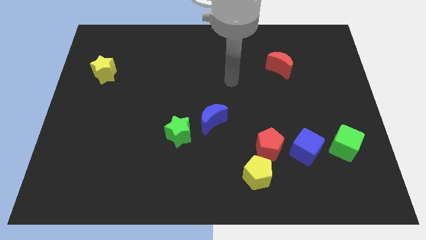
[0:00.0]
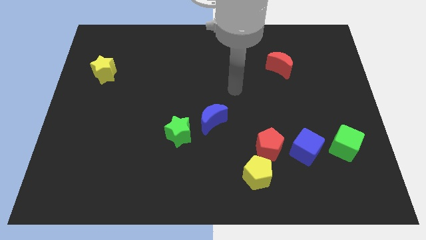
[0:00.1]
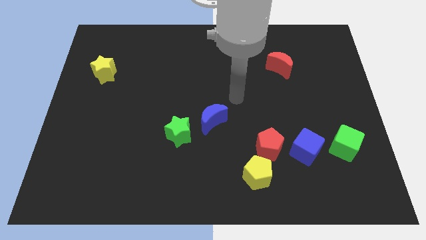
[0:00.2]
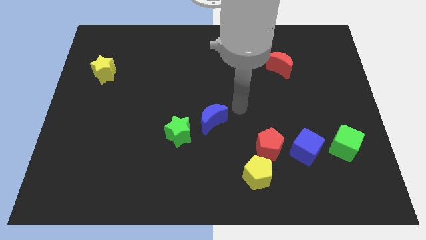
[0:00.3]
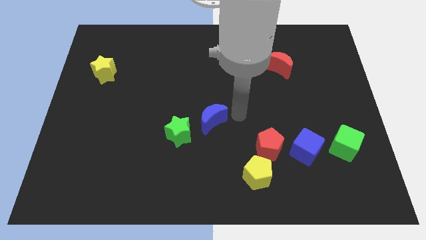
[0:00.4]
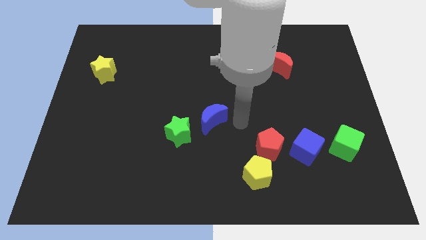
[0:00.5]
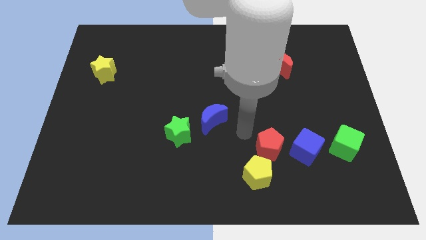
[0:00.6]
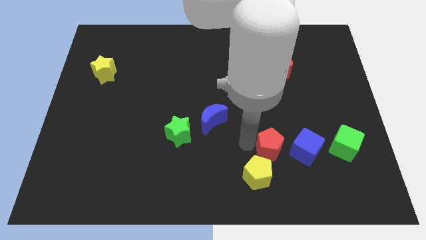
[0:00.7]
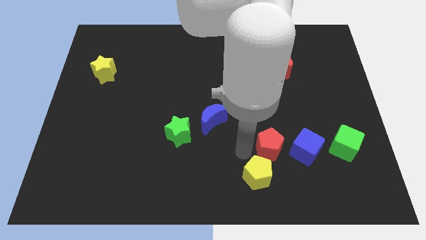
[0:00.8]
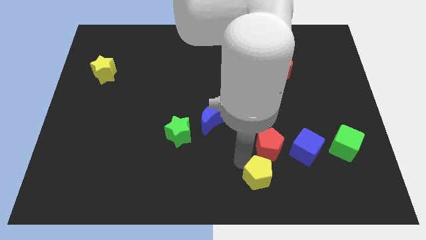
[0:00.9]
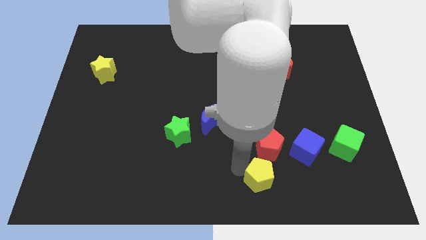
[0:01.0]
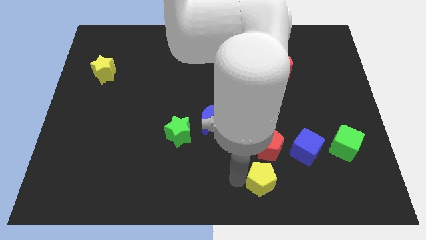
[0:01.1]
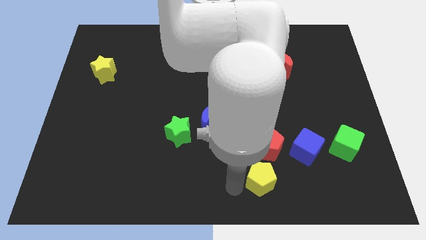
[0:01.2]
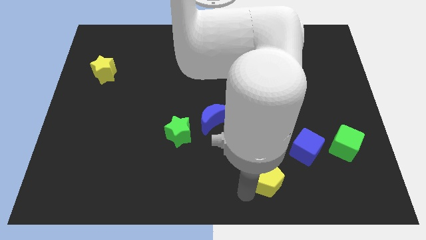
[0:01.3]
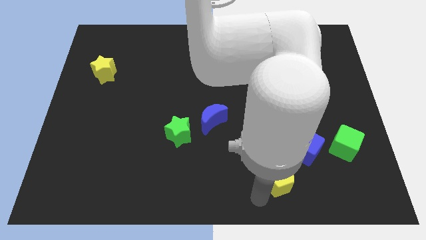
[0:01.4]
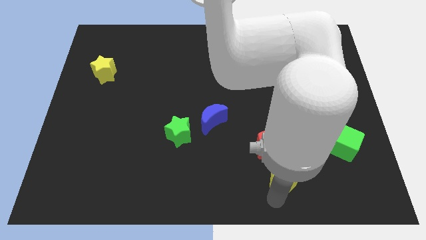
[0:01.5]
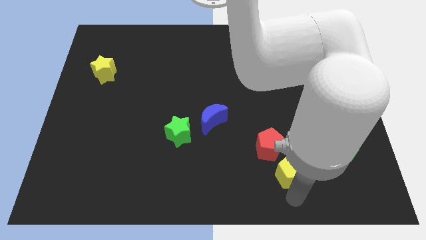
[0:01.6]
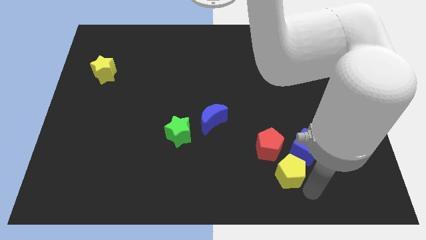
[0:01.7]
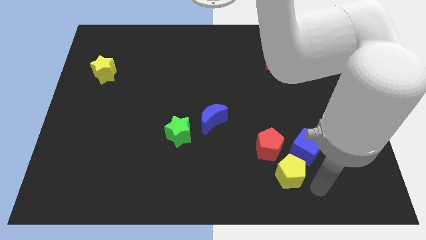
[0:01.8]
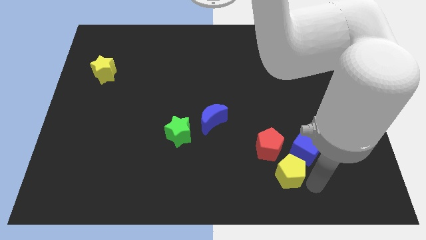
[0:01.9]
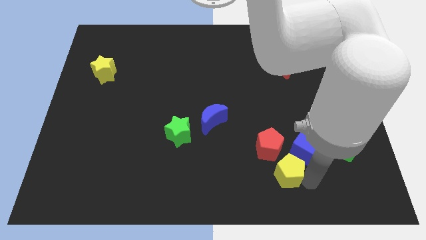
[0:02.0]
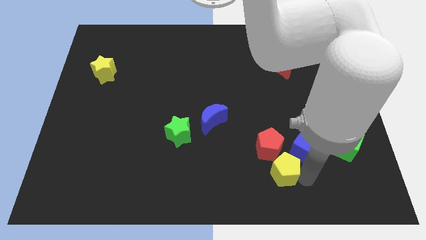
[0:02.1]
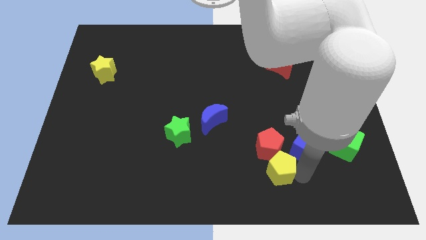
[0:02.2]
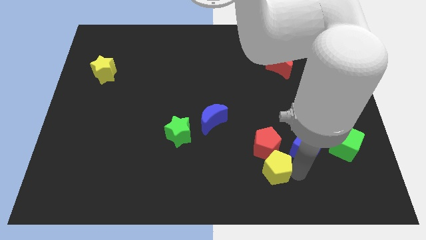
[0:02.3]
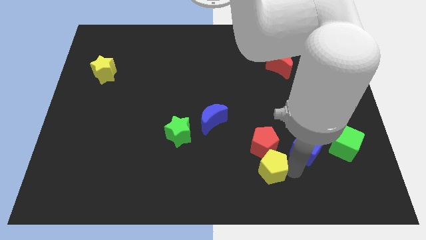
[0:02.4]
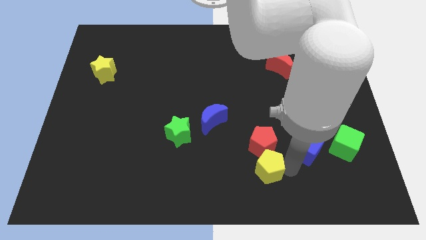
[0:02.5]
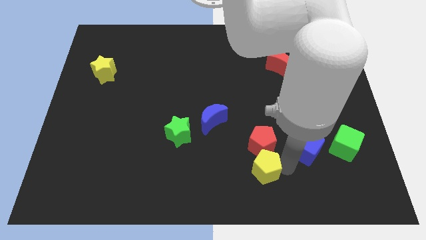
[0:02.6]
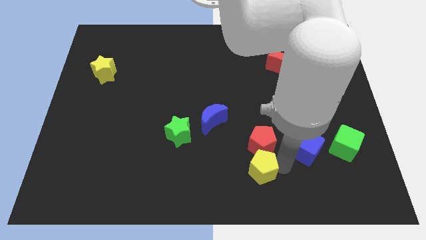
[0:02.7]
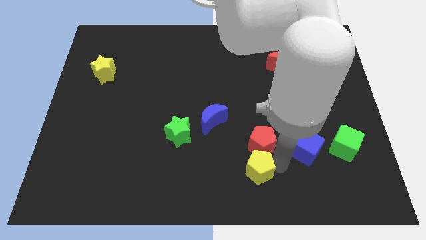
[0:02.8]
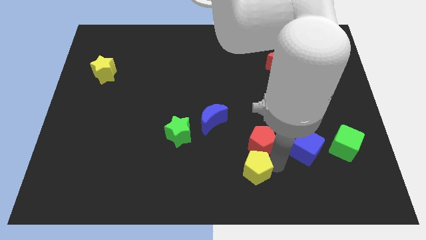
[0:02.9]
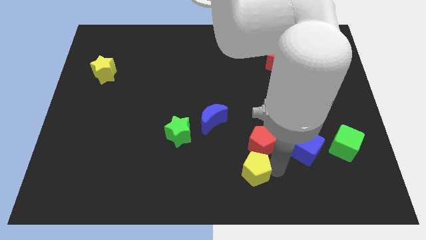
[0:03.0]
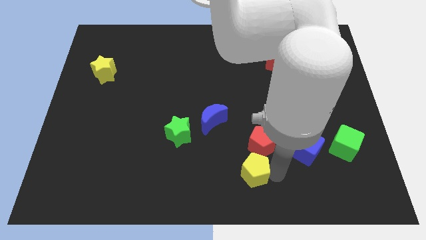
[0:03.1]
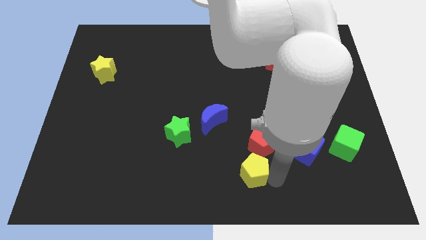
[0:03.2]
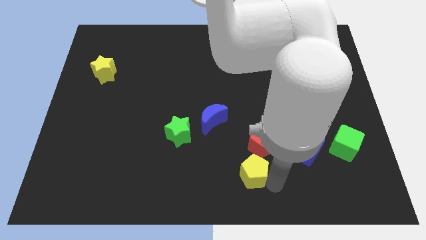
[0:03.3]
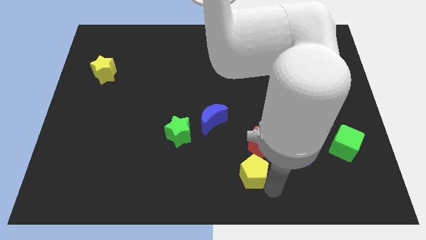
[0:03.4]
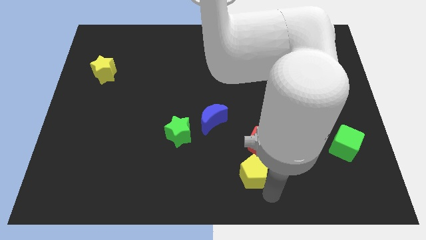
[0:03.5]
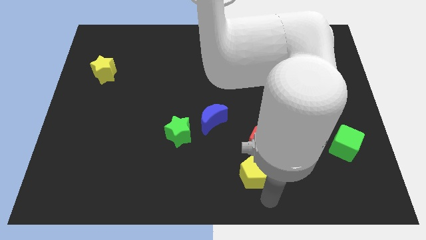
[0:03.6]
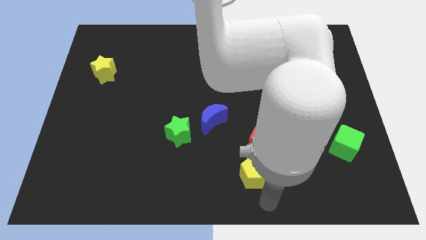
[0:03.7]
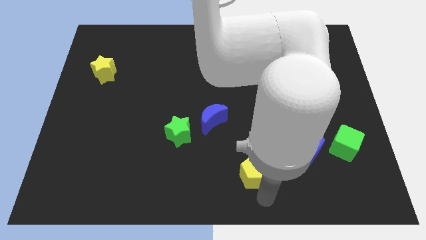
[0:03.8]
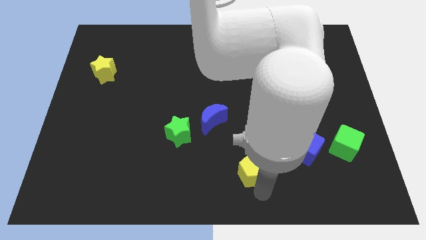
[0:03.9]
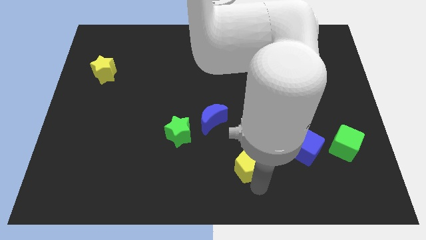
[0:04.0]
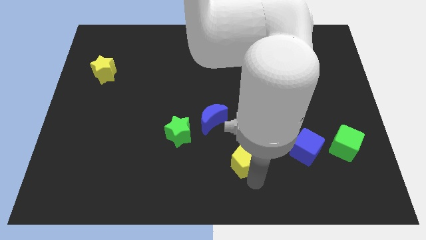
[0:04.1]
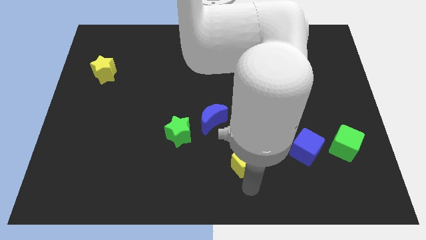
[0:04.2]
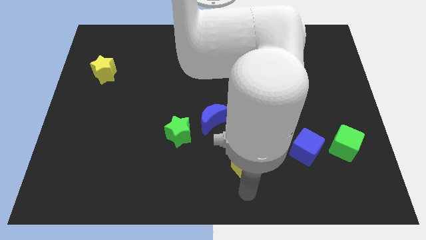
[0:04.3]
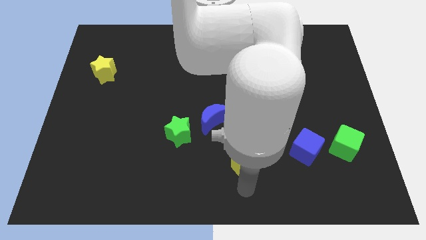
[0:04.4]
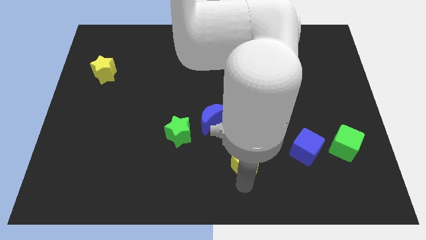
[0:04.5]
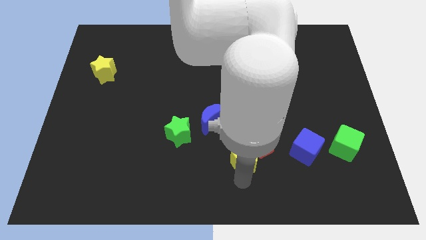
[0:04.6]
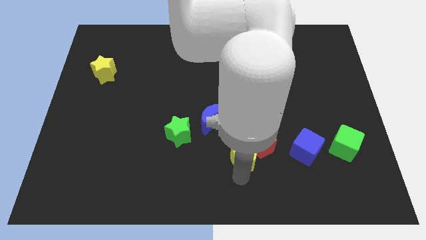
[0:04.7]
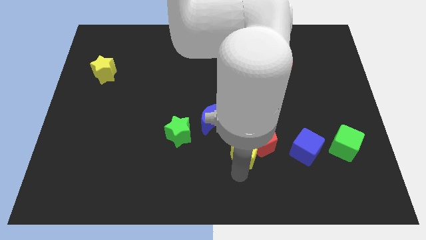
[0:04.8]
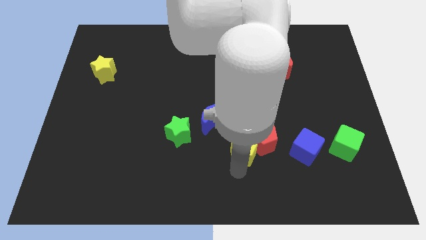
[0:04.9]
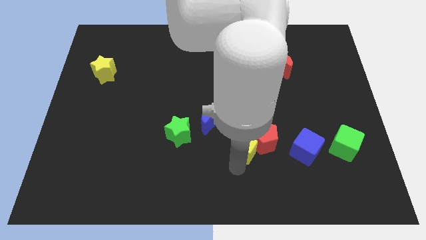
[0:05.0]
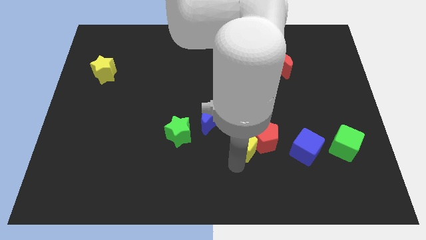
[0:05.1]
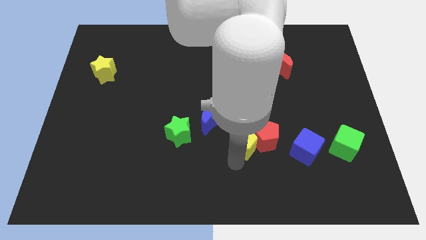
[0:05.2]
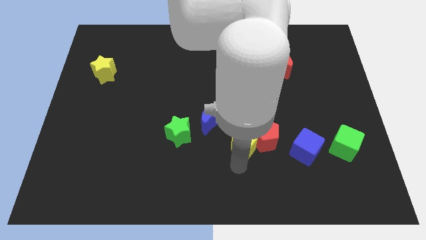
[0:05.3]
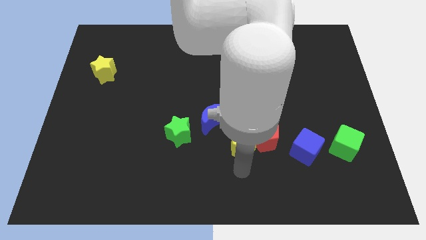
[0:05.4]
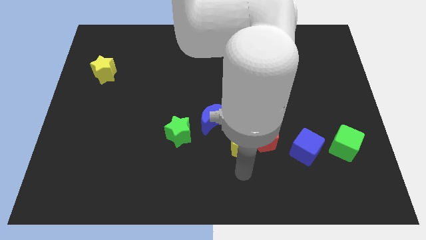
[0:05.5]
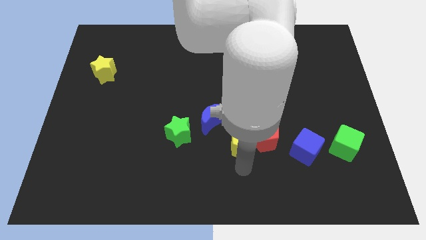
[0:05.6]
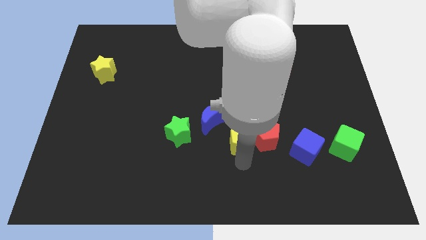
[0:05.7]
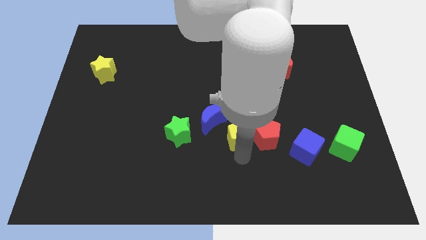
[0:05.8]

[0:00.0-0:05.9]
slide the yellow pentagon to the center

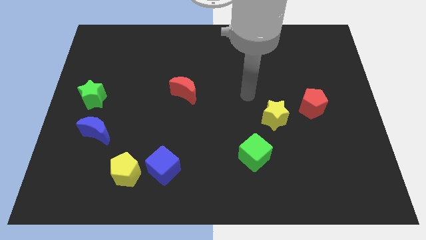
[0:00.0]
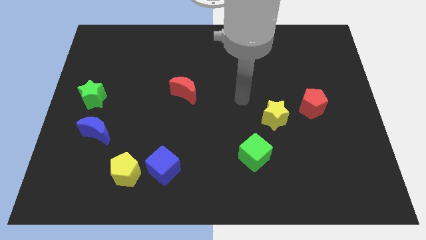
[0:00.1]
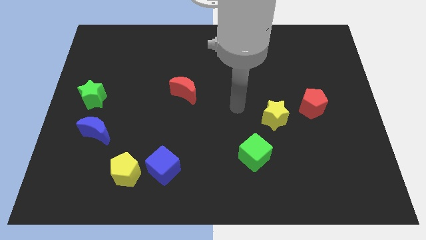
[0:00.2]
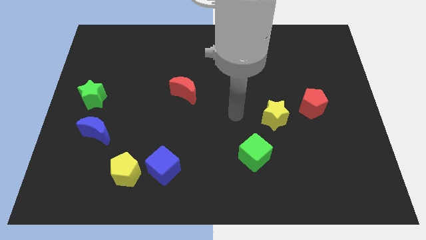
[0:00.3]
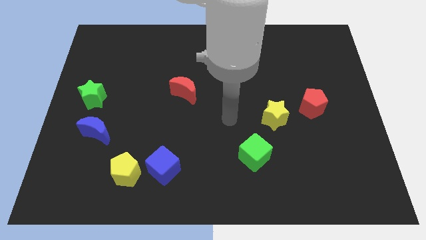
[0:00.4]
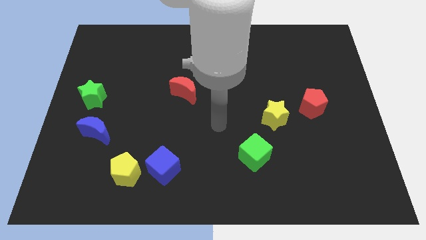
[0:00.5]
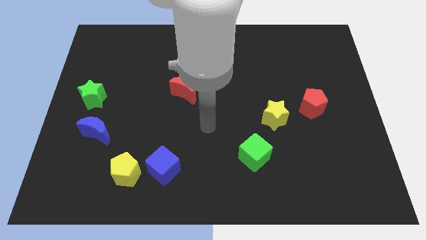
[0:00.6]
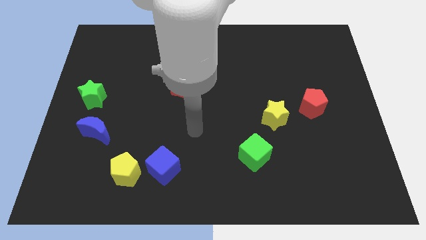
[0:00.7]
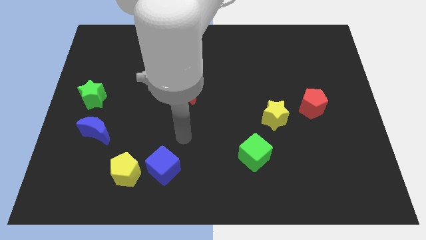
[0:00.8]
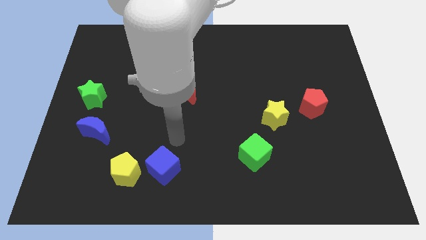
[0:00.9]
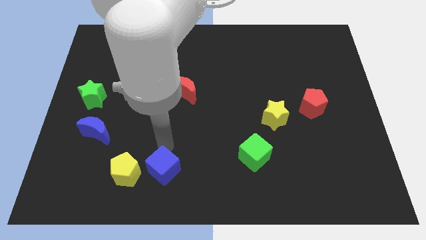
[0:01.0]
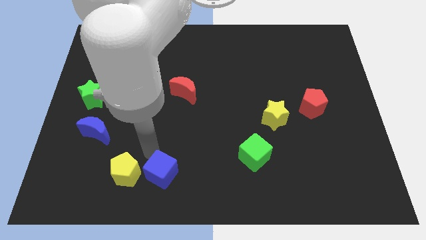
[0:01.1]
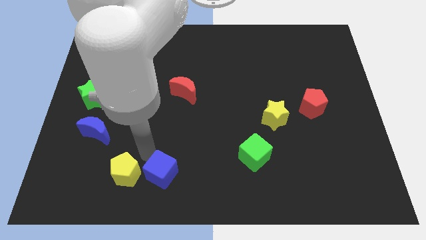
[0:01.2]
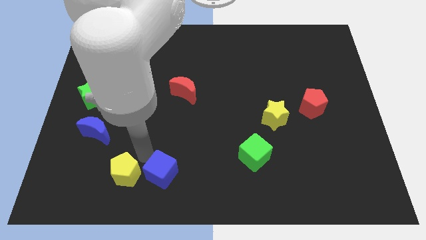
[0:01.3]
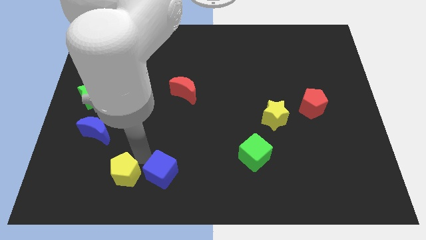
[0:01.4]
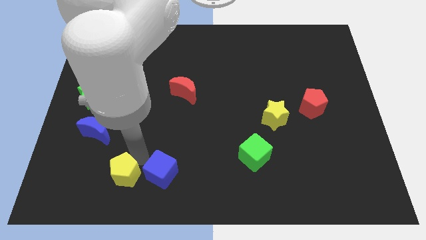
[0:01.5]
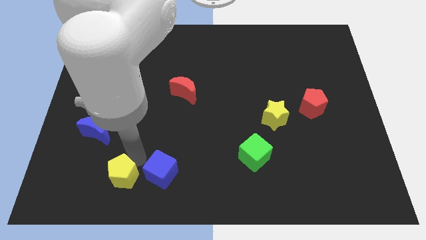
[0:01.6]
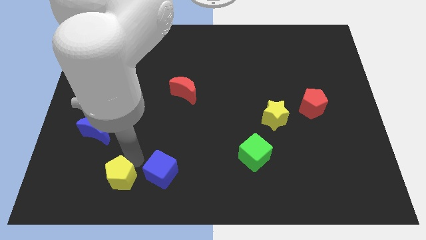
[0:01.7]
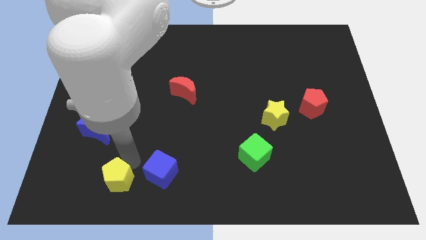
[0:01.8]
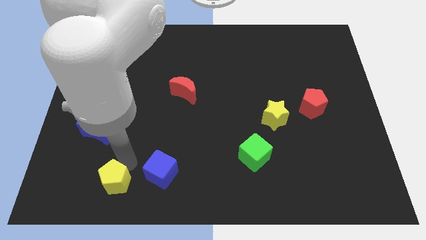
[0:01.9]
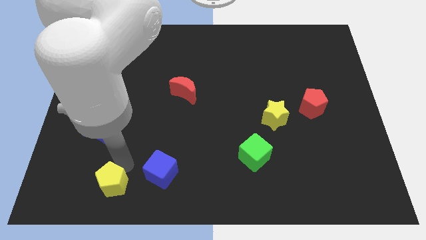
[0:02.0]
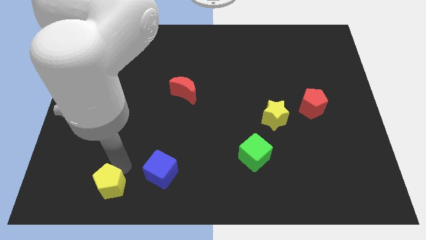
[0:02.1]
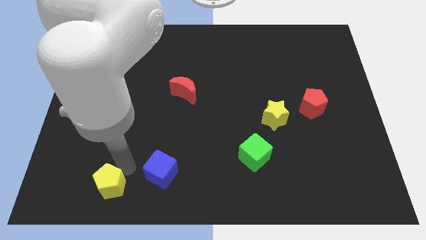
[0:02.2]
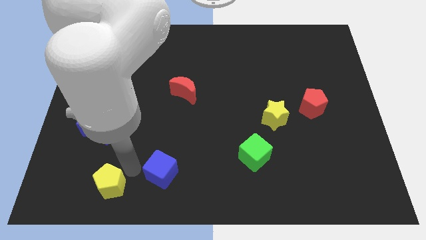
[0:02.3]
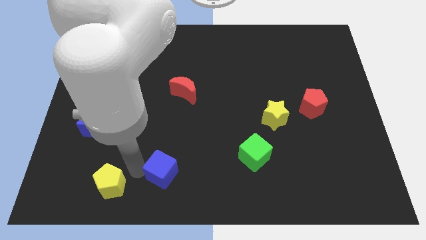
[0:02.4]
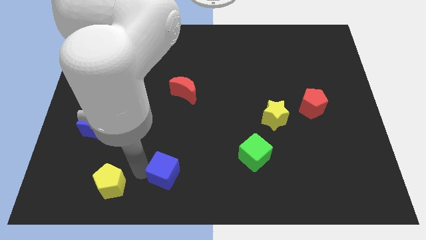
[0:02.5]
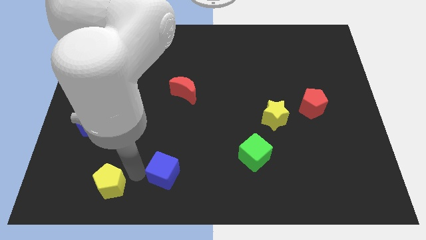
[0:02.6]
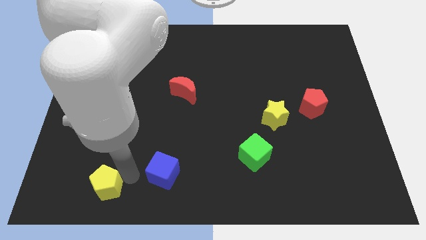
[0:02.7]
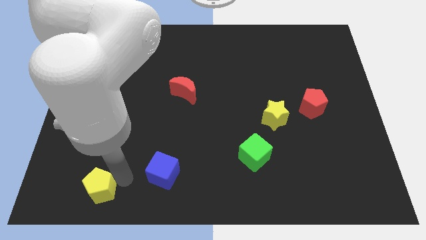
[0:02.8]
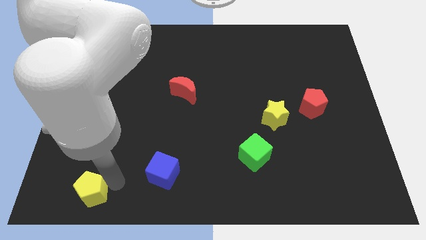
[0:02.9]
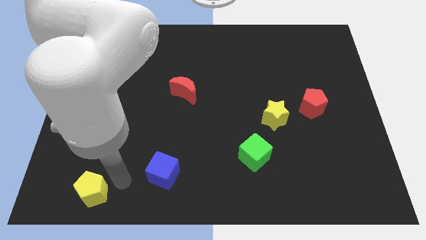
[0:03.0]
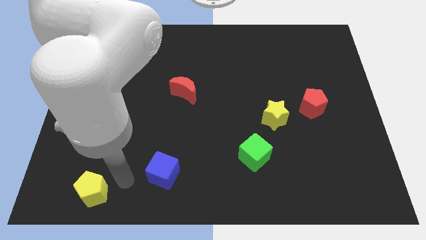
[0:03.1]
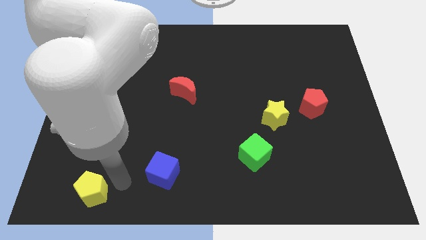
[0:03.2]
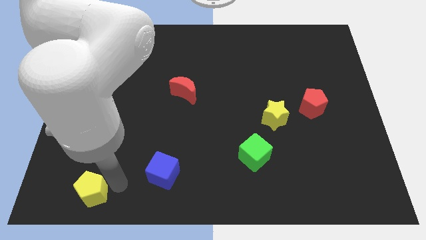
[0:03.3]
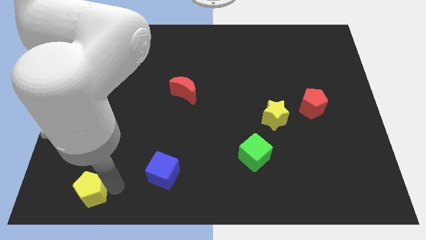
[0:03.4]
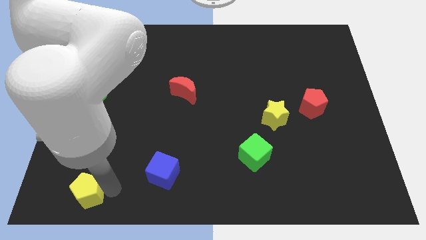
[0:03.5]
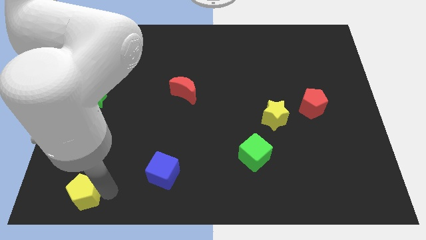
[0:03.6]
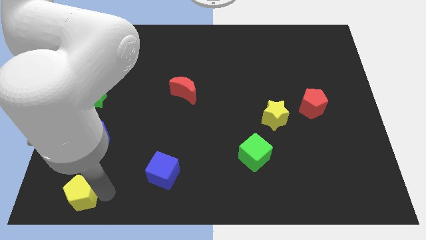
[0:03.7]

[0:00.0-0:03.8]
put the yellow pentagon to the bottom left of the board
